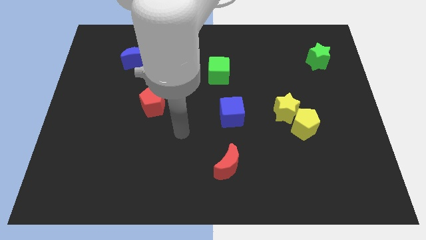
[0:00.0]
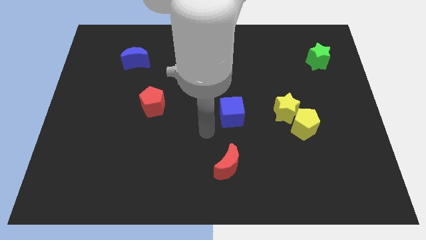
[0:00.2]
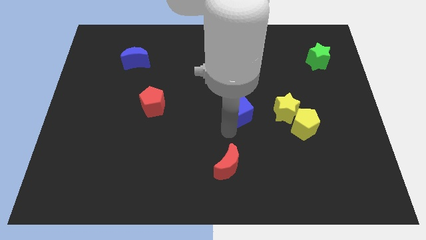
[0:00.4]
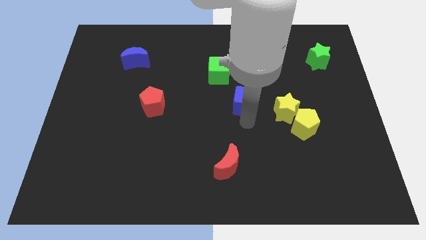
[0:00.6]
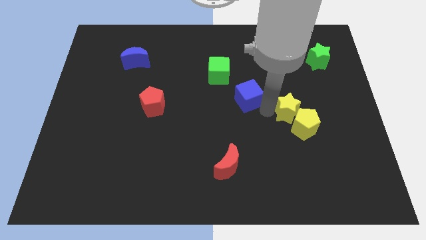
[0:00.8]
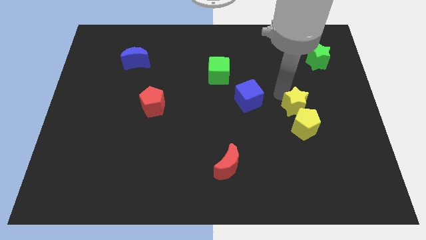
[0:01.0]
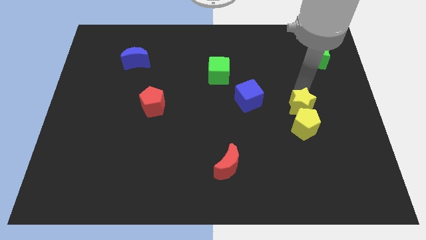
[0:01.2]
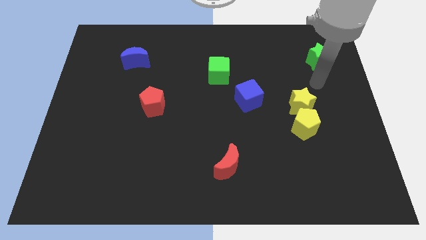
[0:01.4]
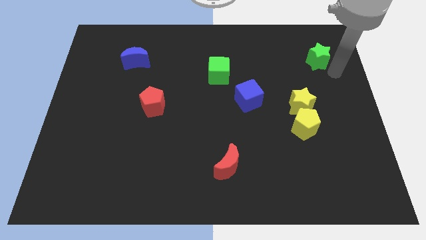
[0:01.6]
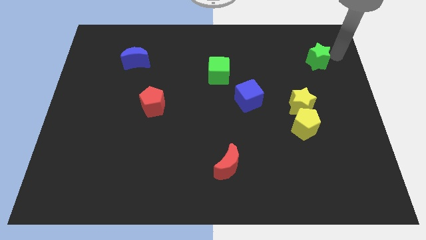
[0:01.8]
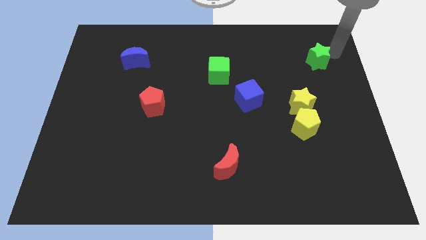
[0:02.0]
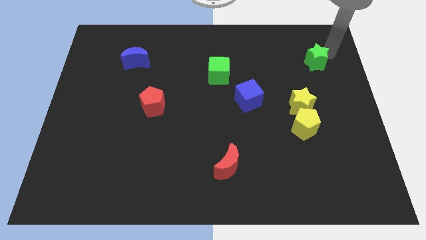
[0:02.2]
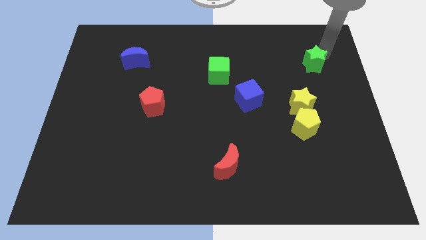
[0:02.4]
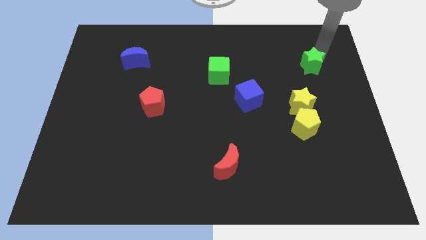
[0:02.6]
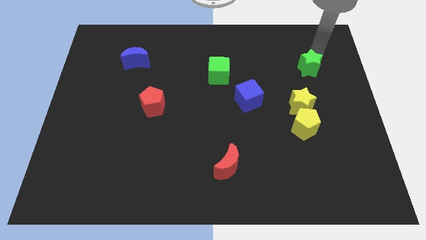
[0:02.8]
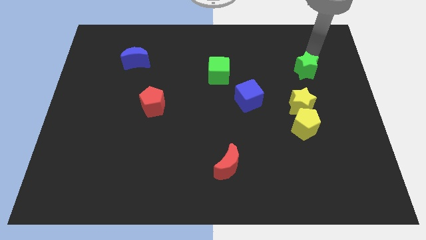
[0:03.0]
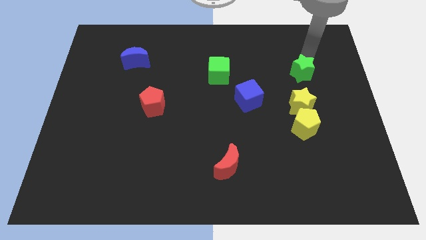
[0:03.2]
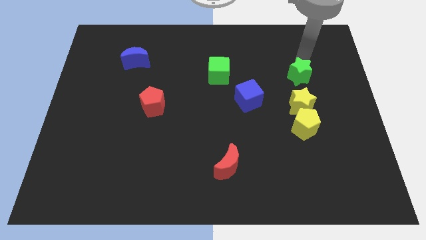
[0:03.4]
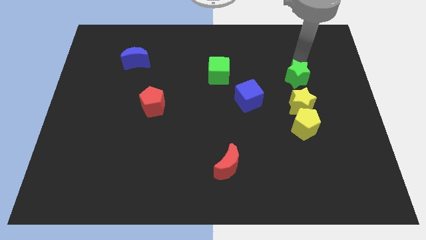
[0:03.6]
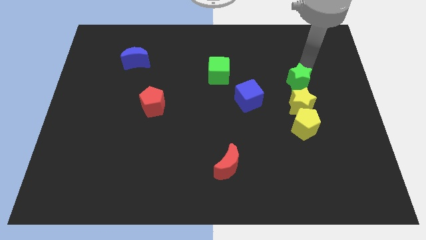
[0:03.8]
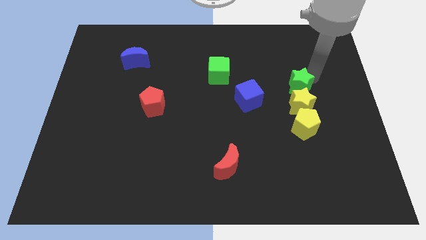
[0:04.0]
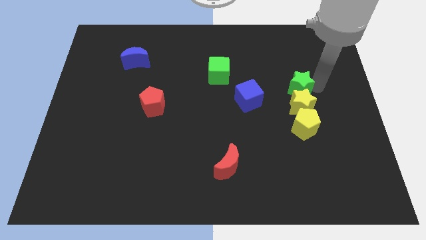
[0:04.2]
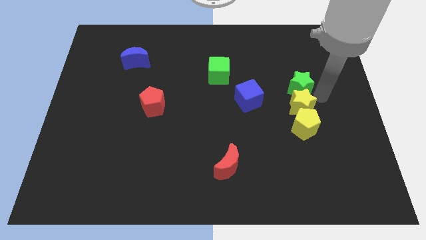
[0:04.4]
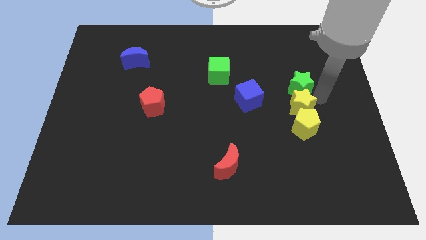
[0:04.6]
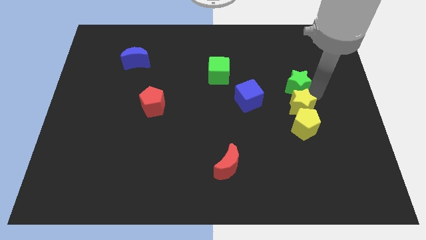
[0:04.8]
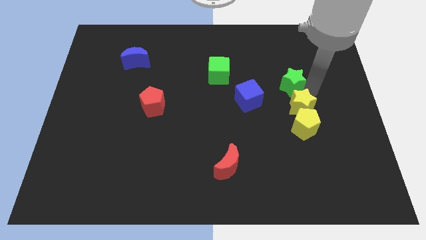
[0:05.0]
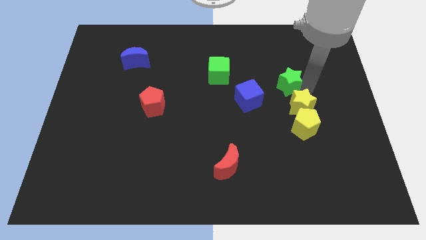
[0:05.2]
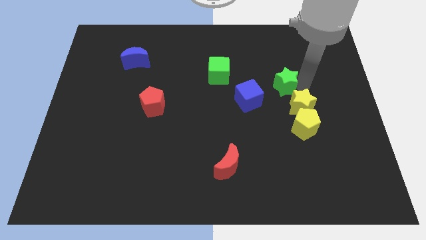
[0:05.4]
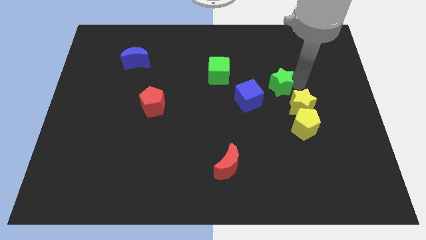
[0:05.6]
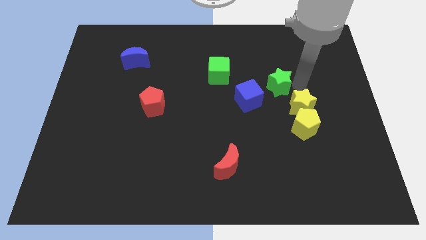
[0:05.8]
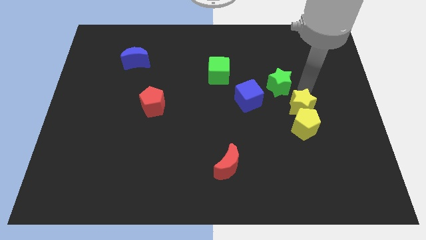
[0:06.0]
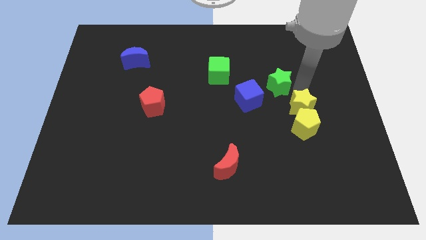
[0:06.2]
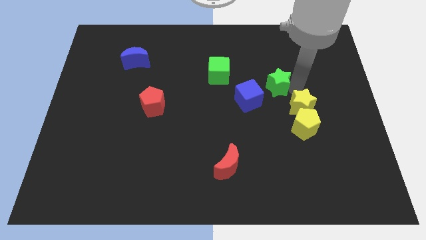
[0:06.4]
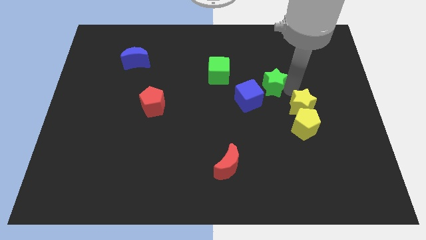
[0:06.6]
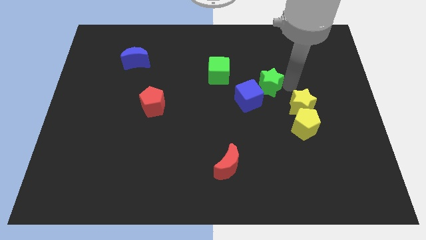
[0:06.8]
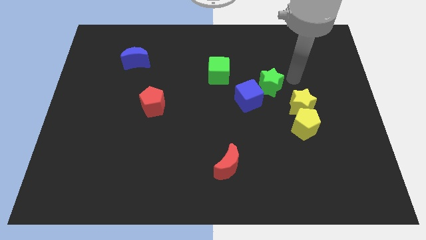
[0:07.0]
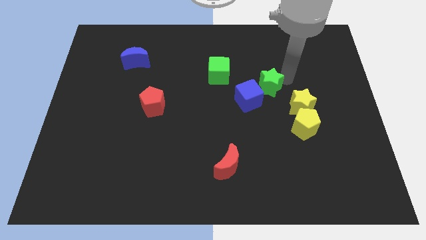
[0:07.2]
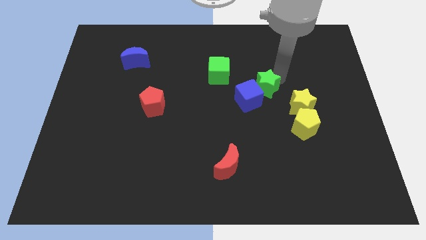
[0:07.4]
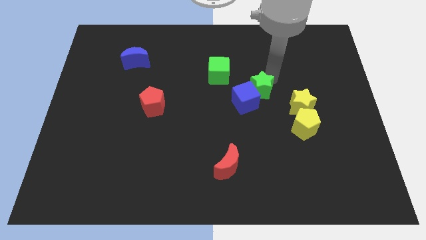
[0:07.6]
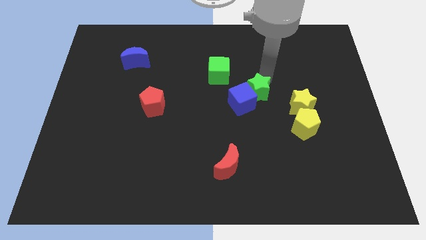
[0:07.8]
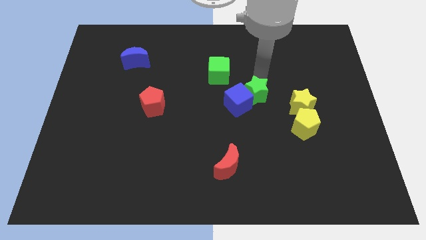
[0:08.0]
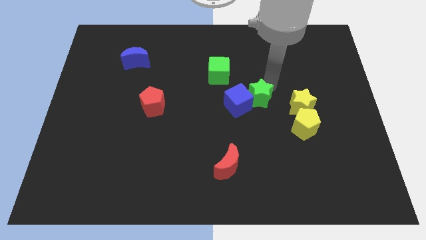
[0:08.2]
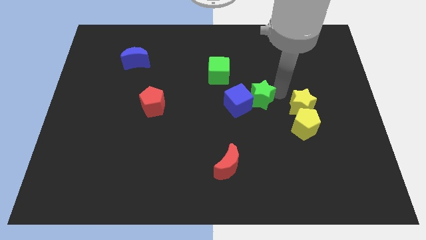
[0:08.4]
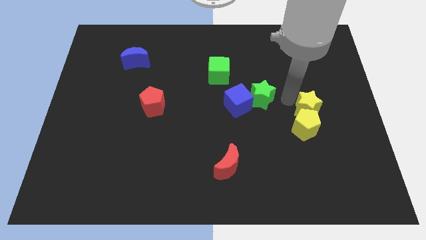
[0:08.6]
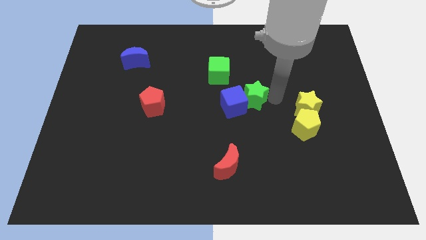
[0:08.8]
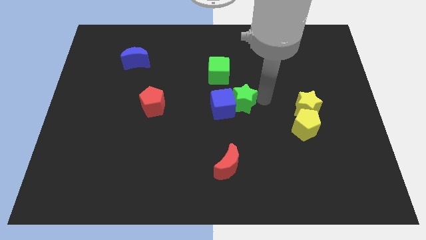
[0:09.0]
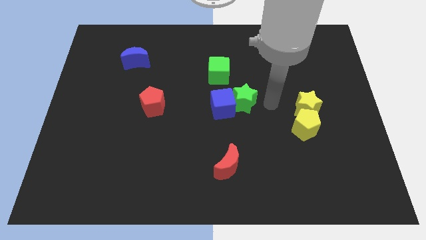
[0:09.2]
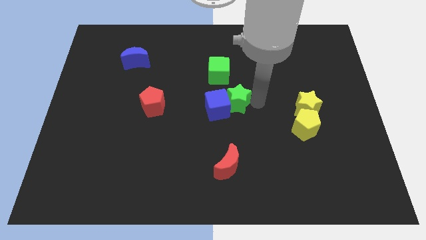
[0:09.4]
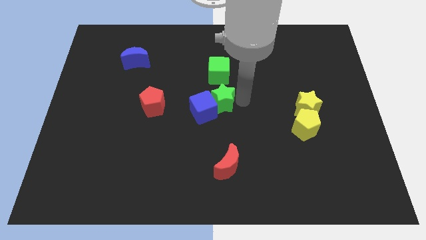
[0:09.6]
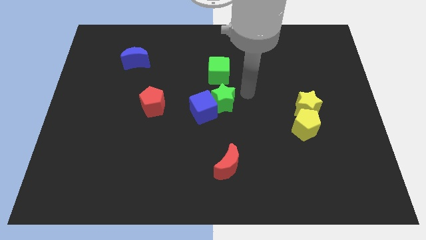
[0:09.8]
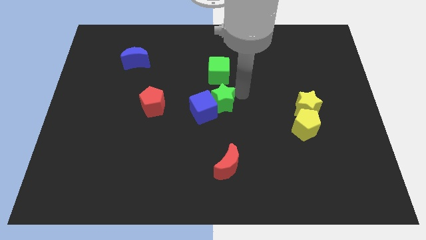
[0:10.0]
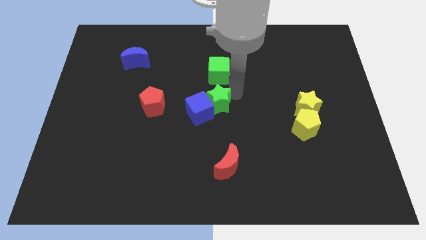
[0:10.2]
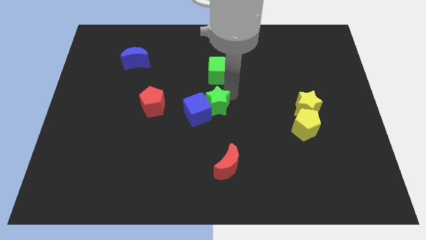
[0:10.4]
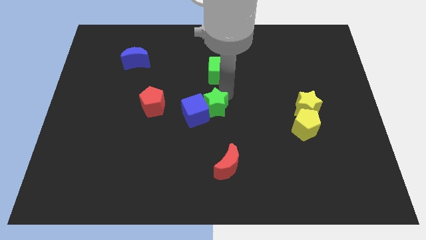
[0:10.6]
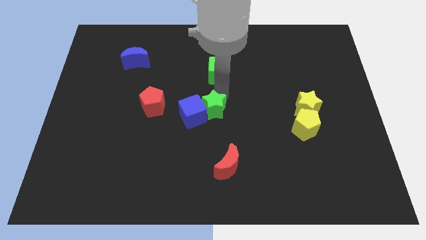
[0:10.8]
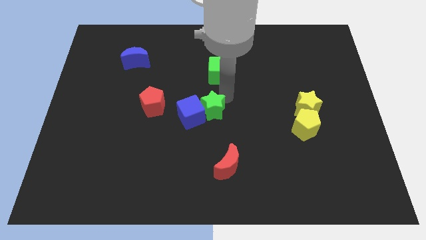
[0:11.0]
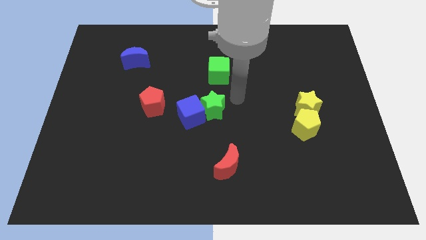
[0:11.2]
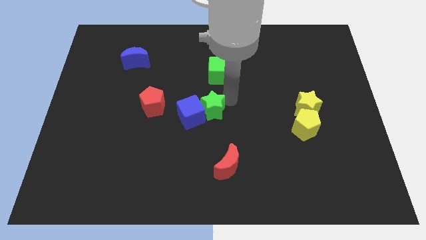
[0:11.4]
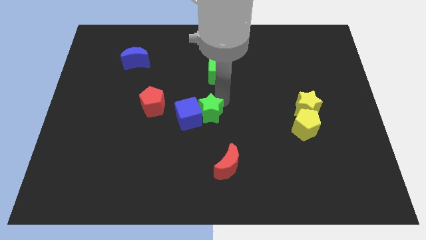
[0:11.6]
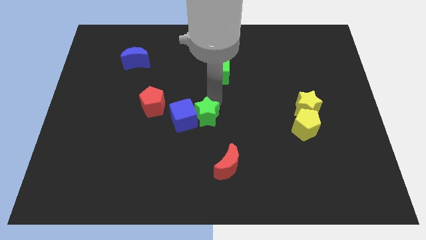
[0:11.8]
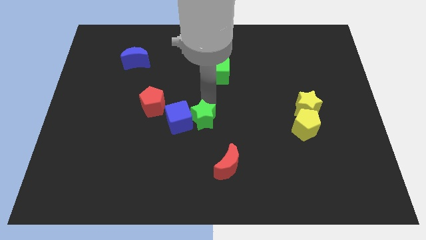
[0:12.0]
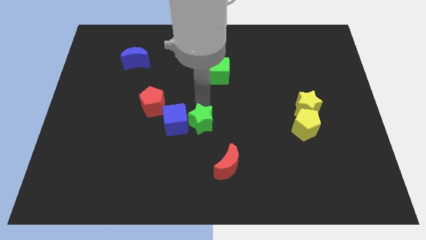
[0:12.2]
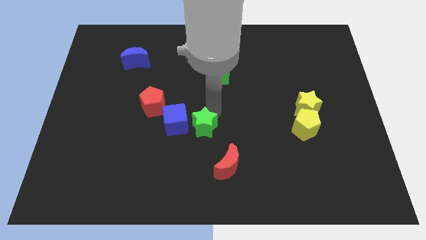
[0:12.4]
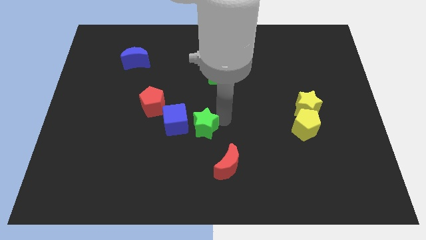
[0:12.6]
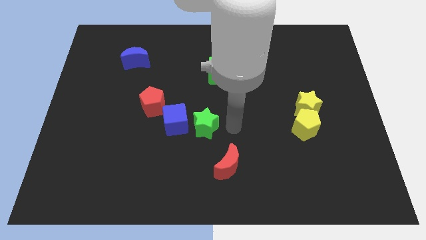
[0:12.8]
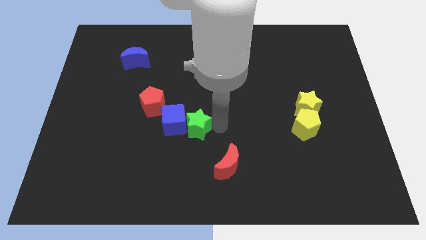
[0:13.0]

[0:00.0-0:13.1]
slide the green star to the bottom right of the red pentagon

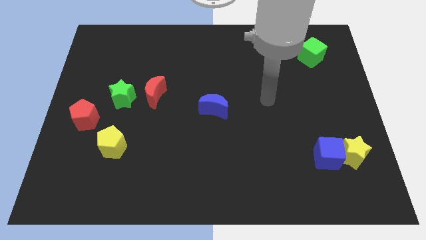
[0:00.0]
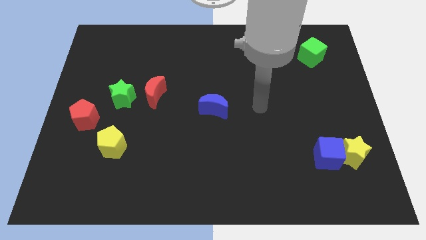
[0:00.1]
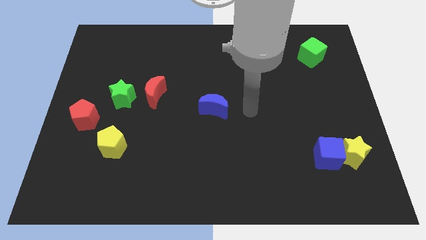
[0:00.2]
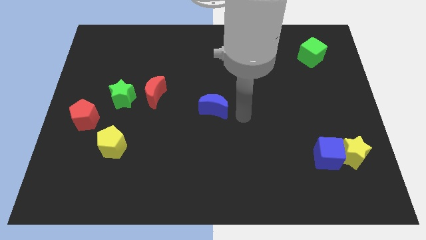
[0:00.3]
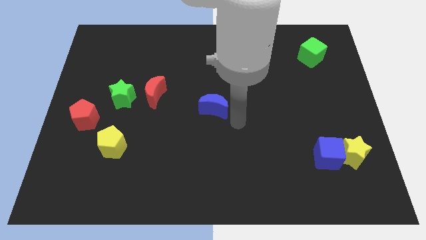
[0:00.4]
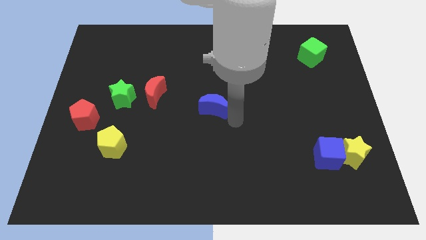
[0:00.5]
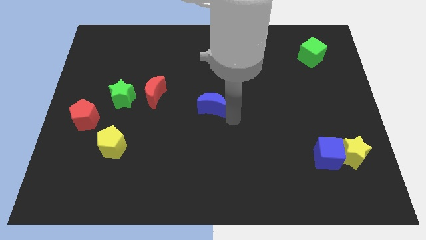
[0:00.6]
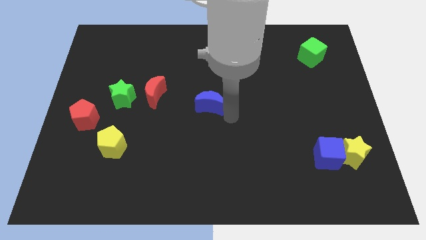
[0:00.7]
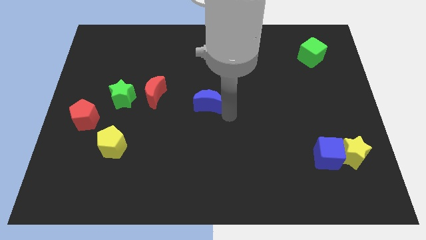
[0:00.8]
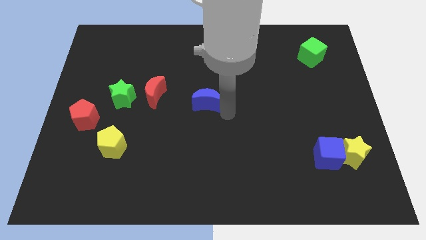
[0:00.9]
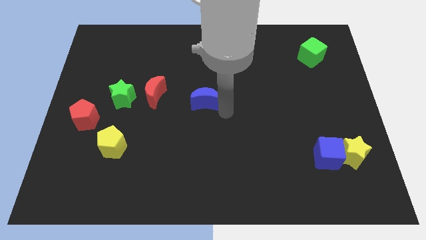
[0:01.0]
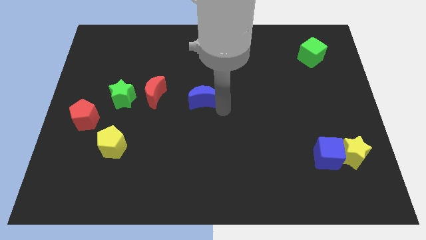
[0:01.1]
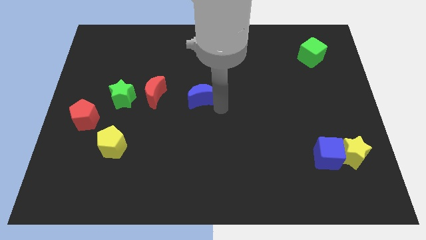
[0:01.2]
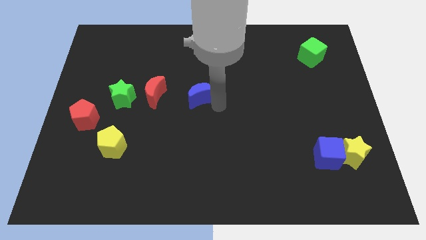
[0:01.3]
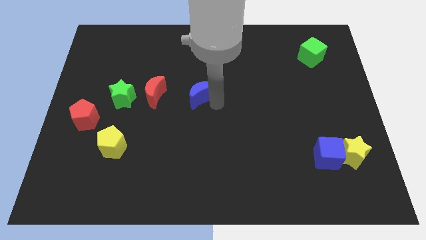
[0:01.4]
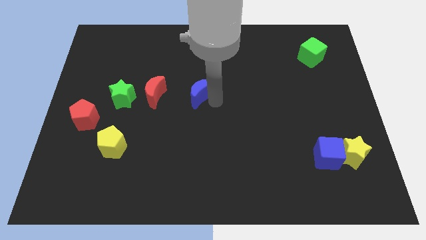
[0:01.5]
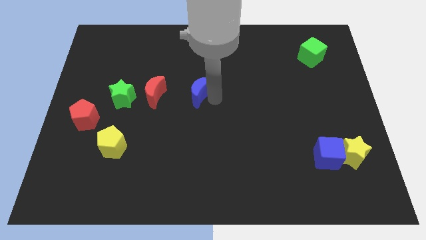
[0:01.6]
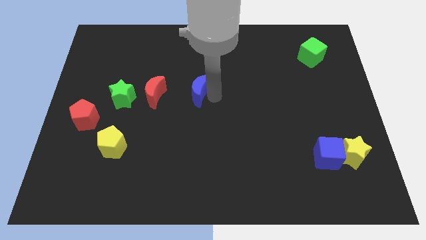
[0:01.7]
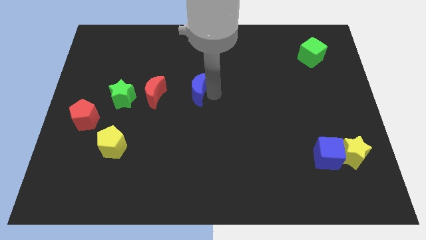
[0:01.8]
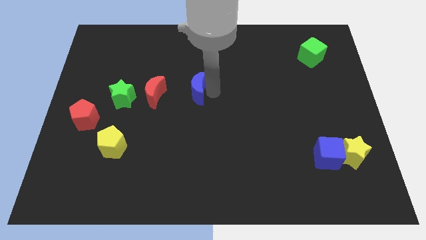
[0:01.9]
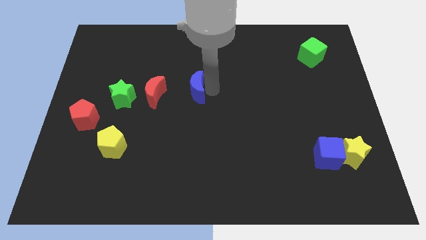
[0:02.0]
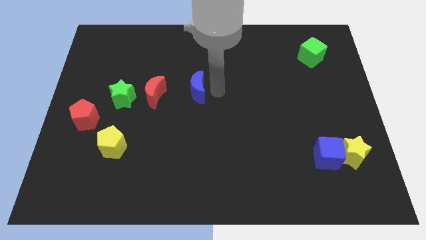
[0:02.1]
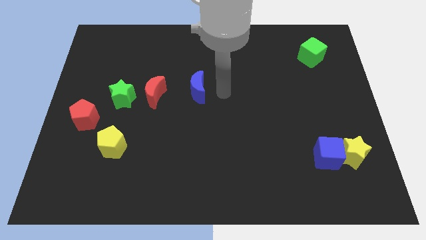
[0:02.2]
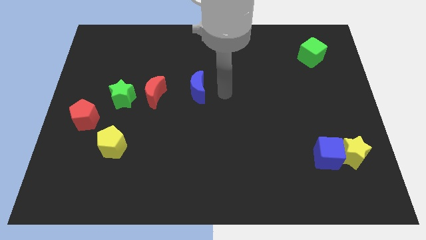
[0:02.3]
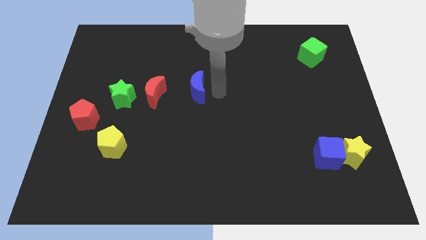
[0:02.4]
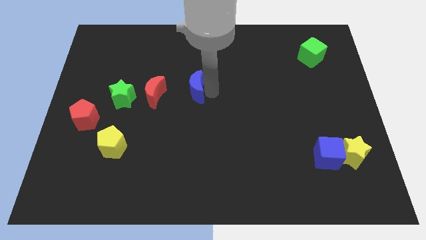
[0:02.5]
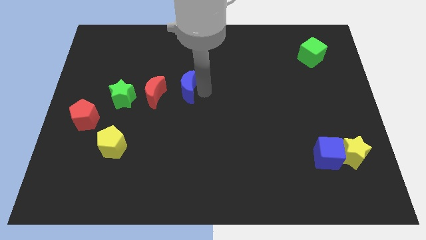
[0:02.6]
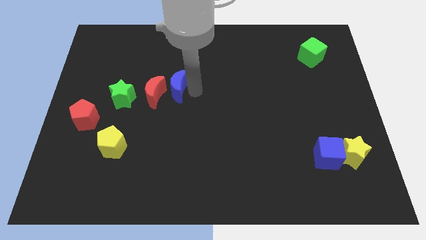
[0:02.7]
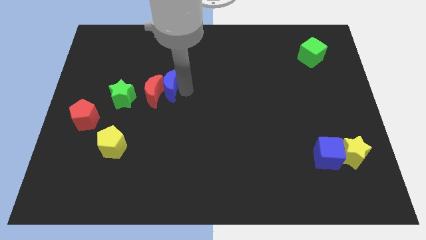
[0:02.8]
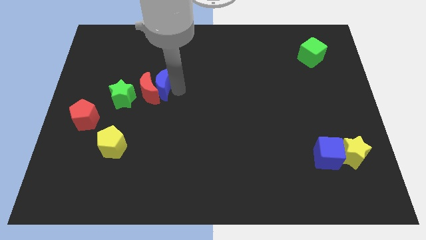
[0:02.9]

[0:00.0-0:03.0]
move the blue moon to the top right side of the green star
